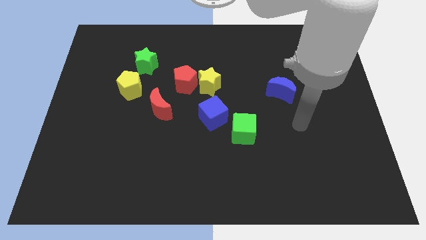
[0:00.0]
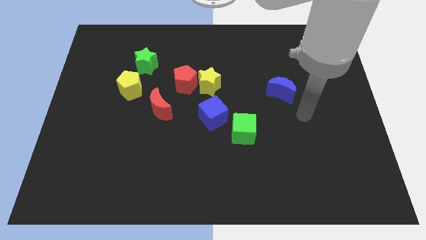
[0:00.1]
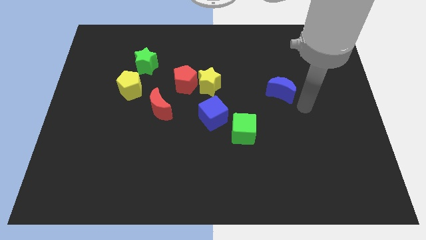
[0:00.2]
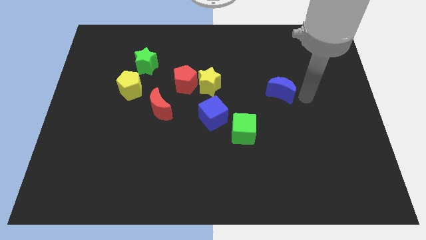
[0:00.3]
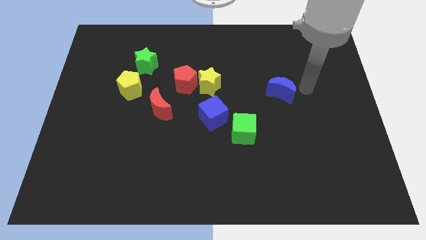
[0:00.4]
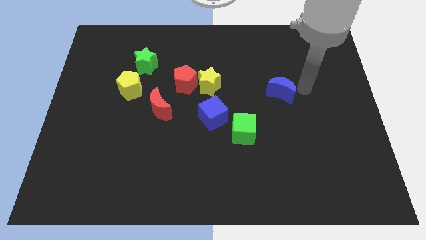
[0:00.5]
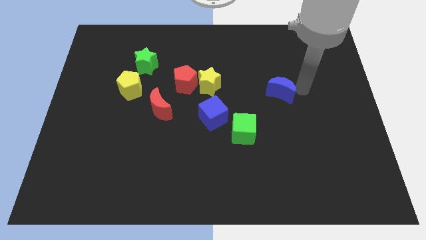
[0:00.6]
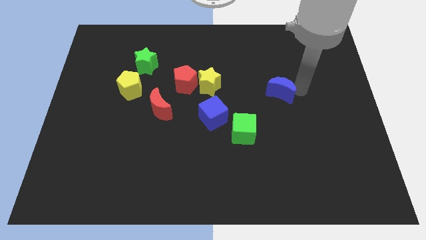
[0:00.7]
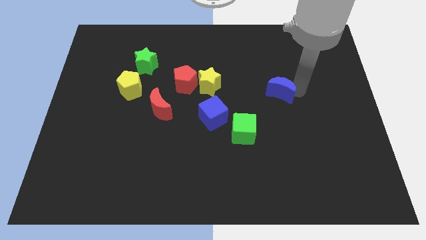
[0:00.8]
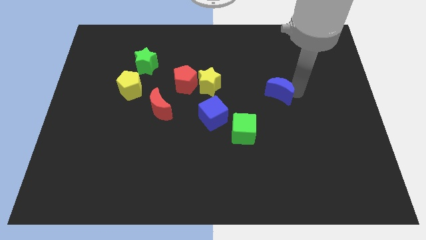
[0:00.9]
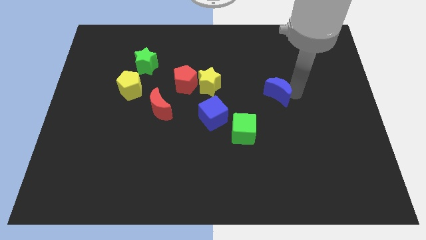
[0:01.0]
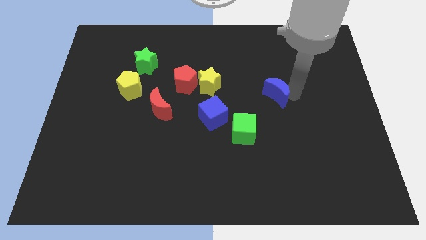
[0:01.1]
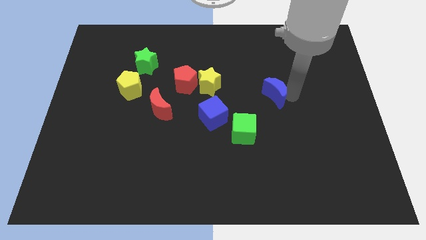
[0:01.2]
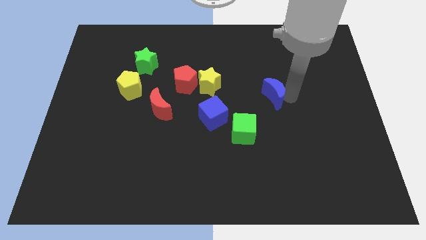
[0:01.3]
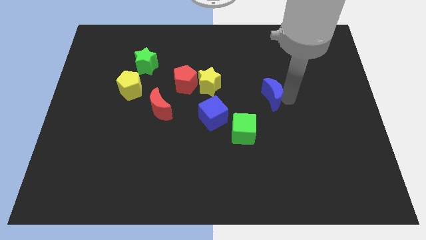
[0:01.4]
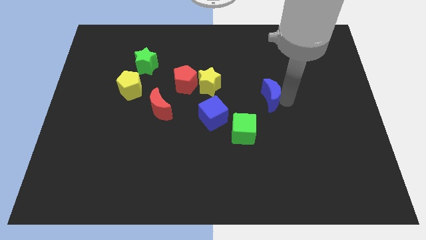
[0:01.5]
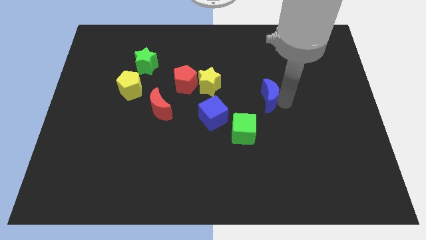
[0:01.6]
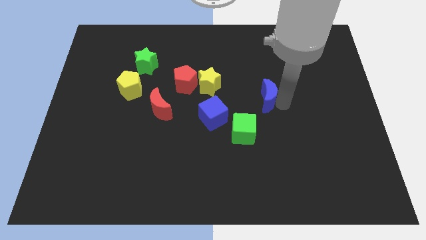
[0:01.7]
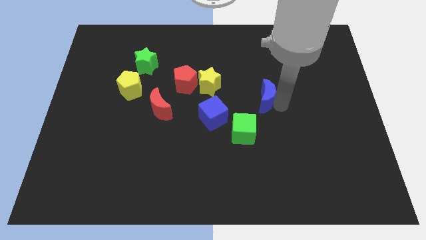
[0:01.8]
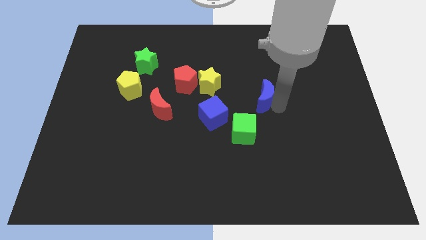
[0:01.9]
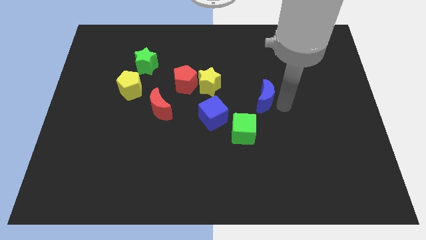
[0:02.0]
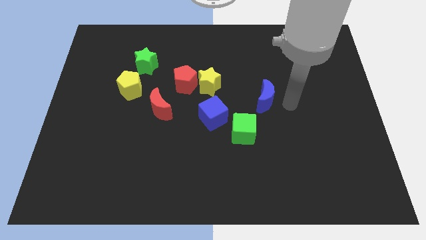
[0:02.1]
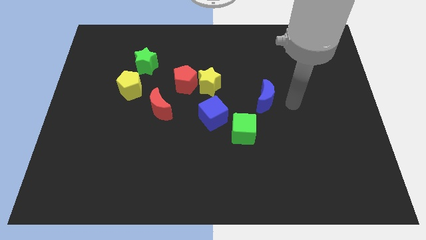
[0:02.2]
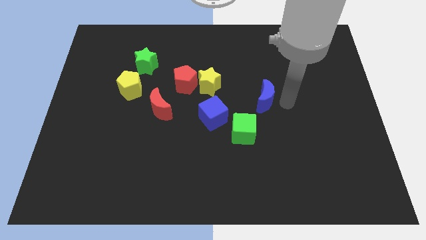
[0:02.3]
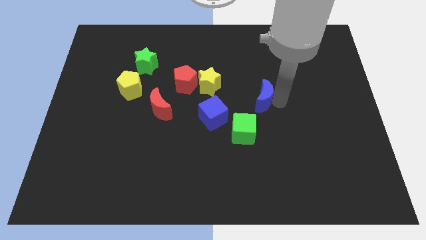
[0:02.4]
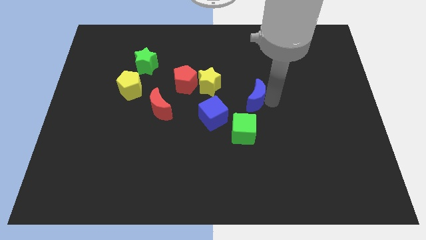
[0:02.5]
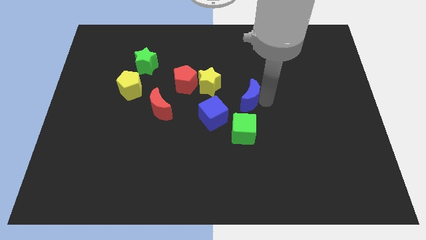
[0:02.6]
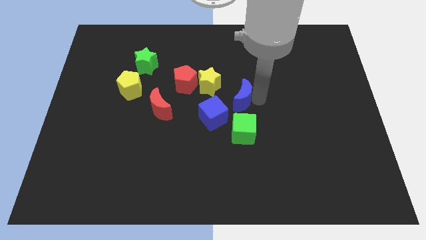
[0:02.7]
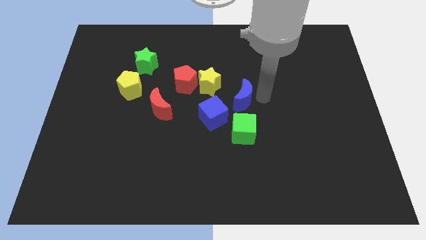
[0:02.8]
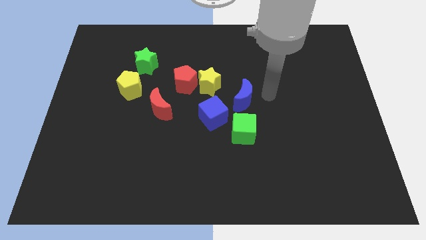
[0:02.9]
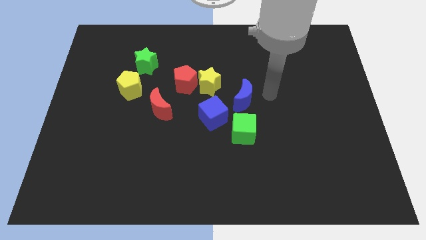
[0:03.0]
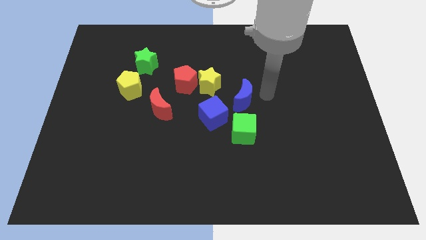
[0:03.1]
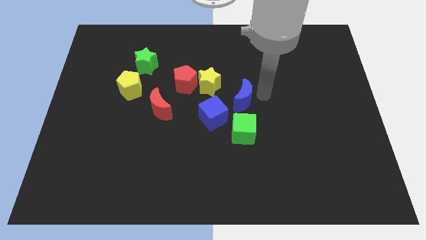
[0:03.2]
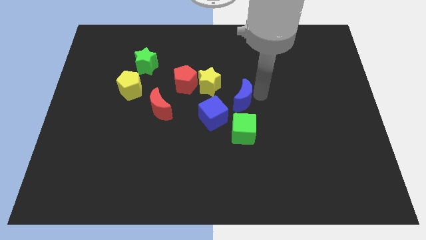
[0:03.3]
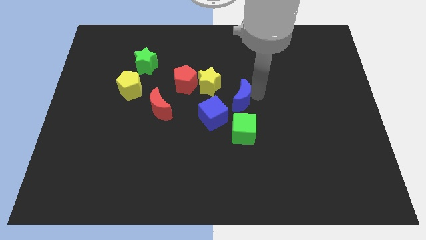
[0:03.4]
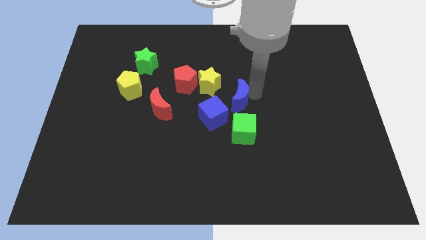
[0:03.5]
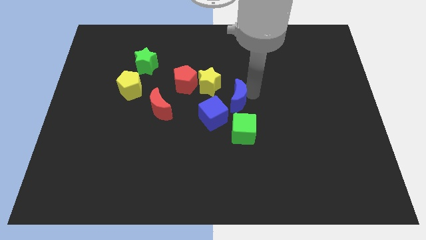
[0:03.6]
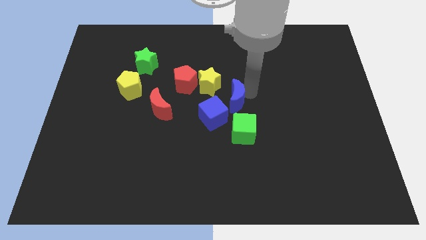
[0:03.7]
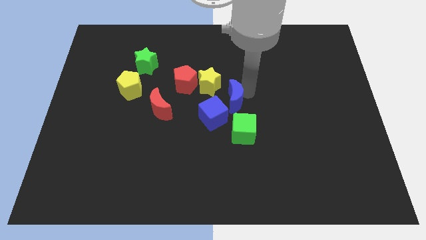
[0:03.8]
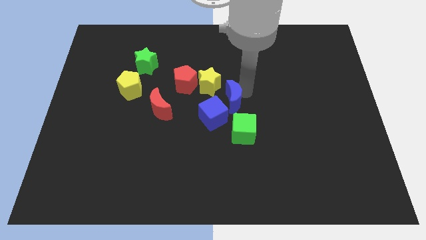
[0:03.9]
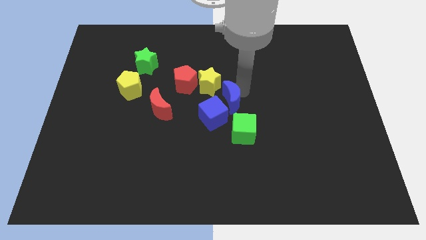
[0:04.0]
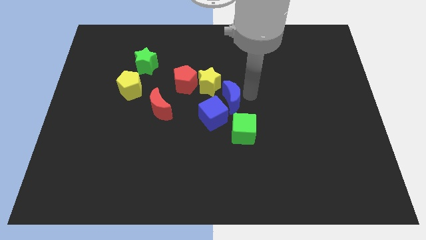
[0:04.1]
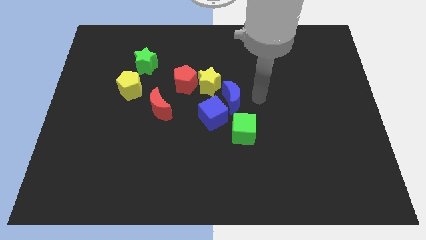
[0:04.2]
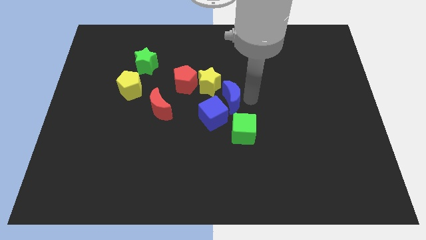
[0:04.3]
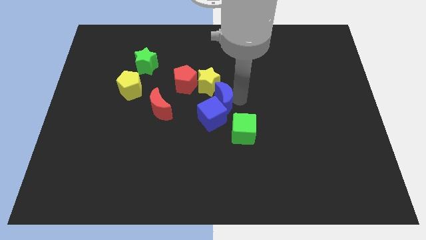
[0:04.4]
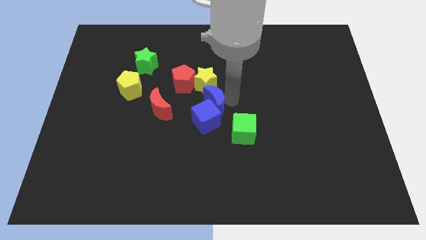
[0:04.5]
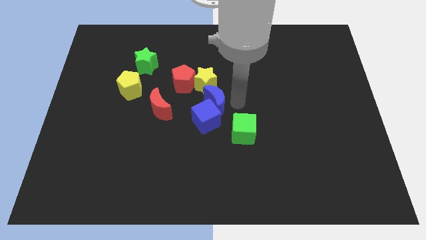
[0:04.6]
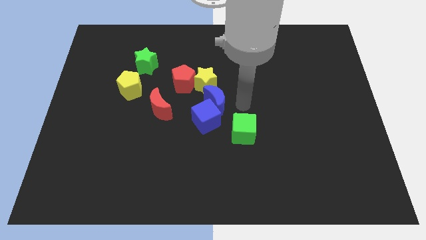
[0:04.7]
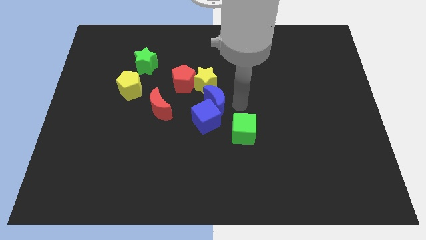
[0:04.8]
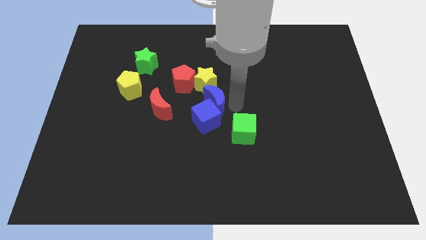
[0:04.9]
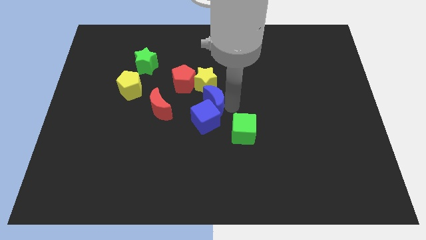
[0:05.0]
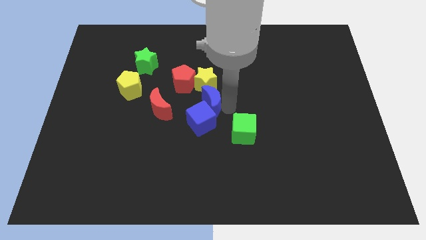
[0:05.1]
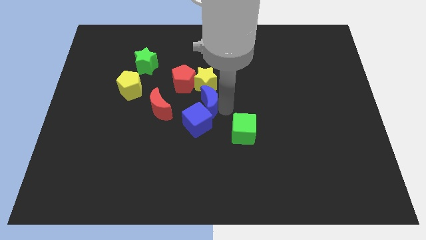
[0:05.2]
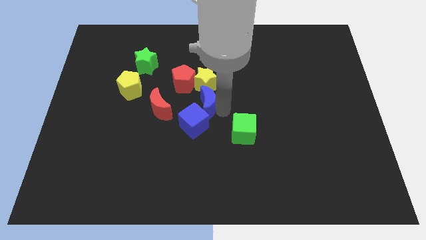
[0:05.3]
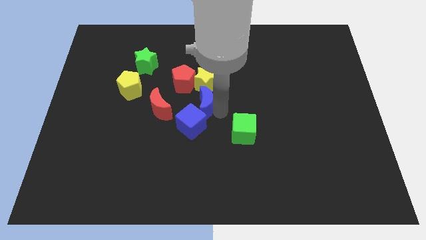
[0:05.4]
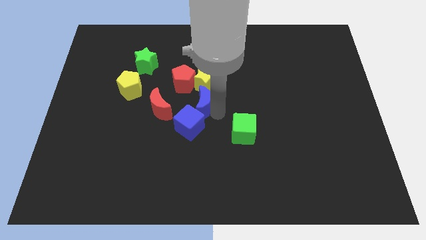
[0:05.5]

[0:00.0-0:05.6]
move the blue moon diagonally down and to the left of the yellow star
